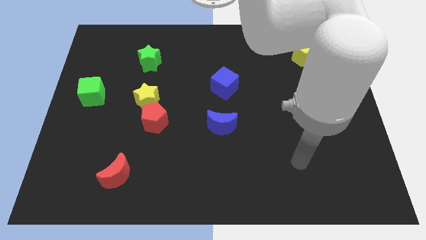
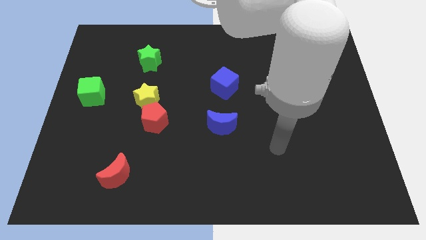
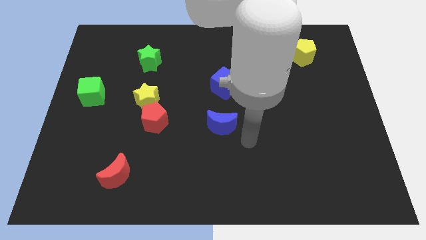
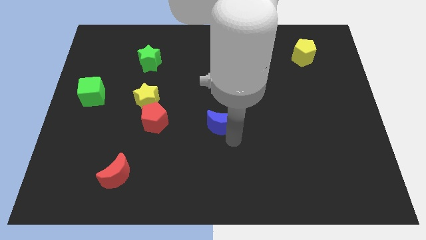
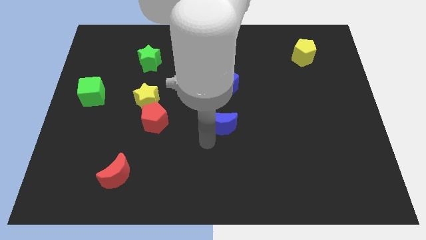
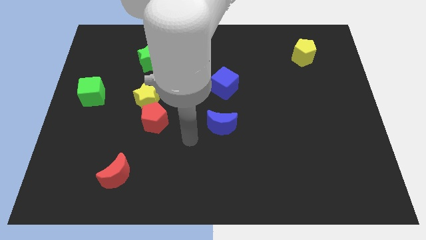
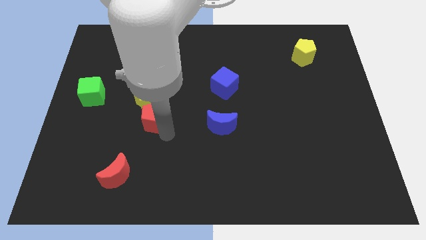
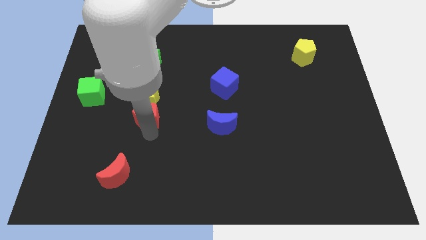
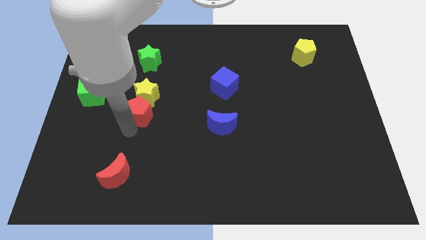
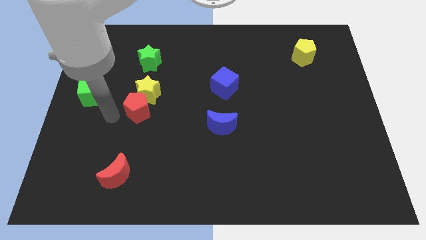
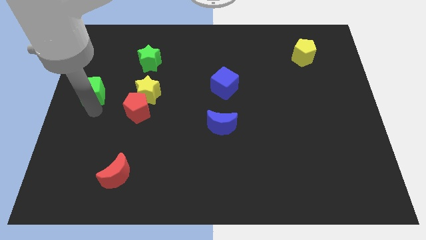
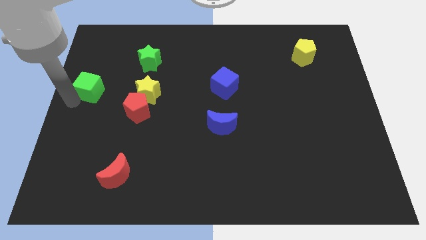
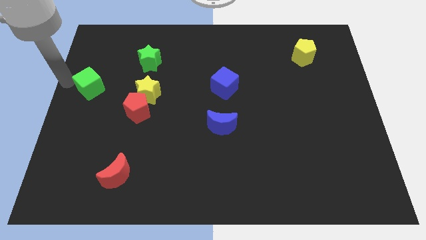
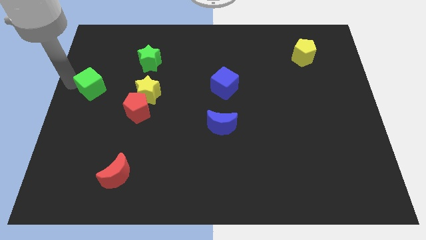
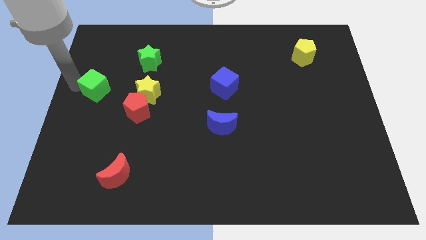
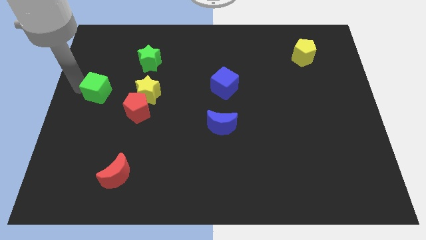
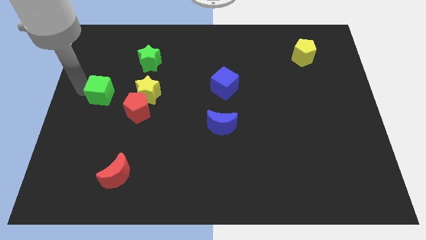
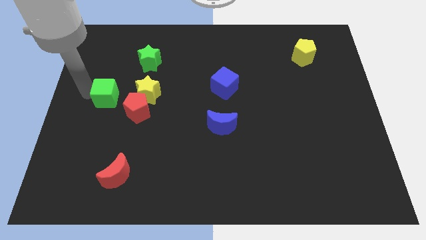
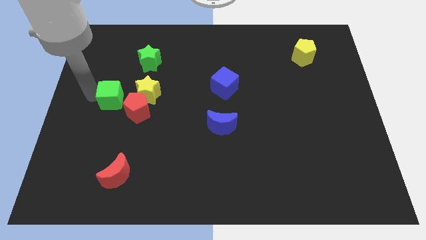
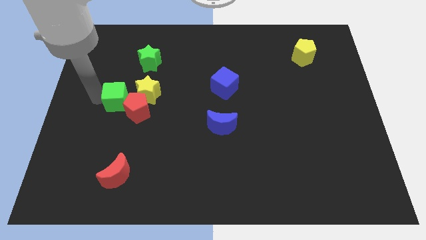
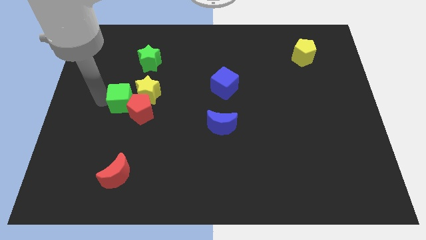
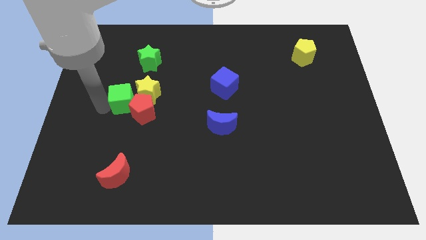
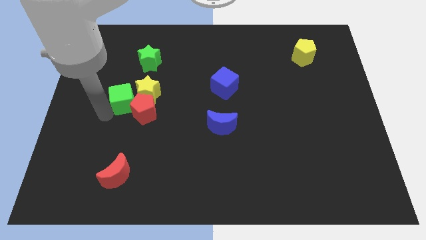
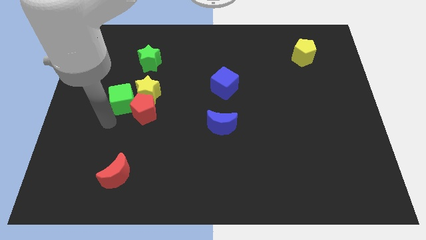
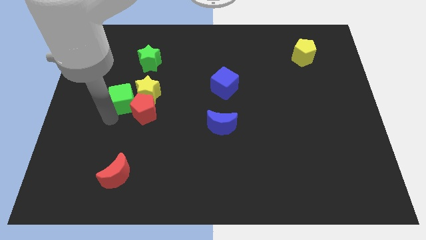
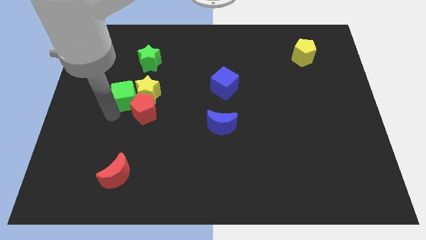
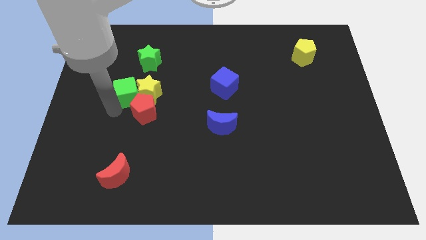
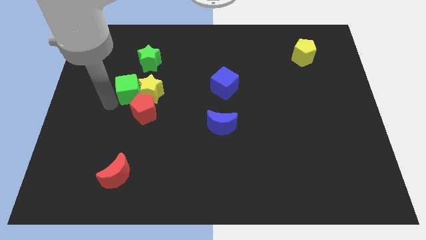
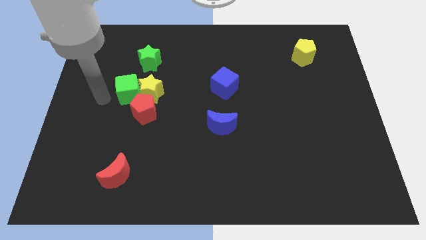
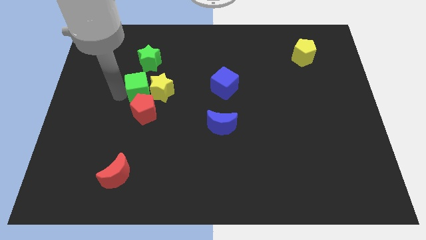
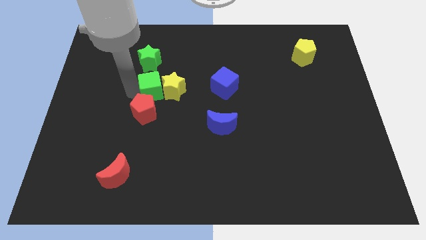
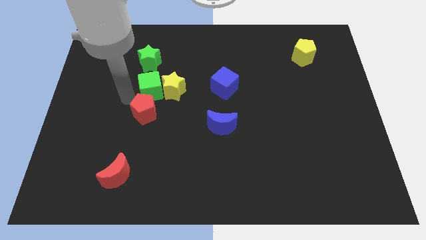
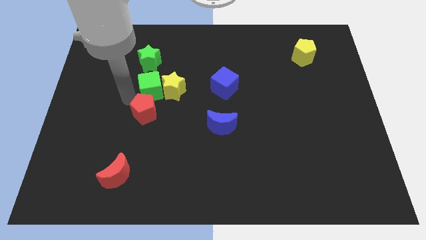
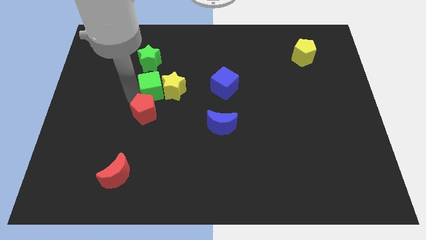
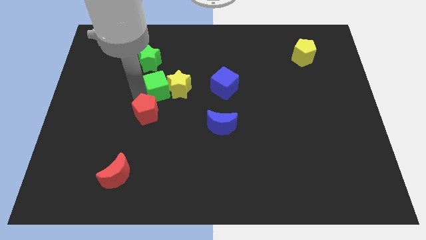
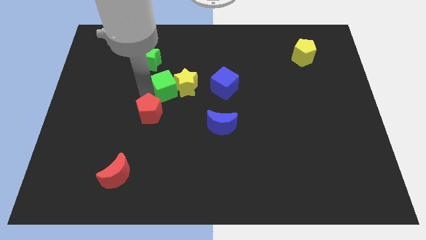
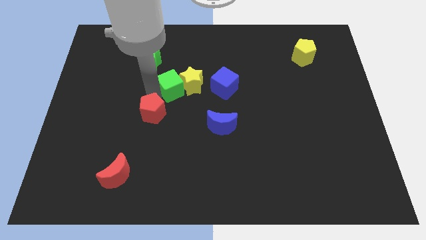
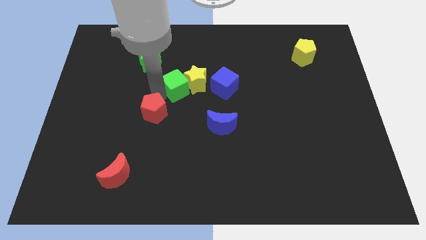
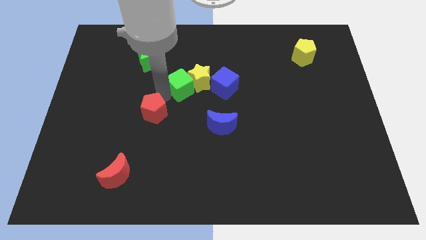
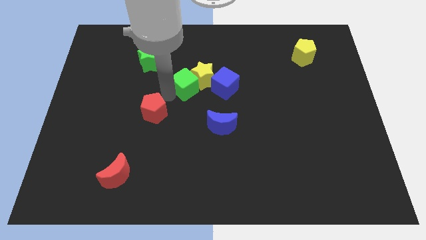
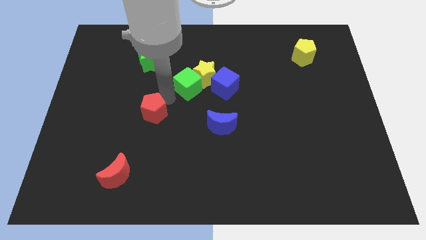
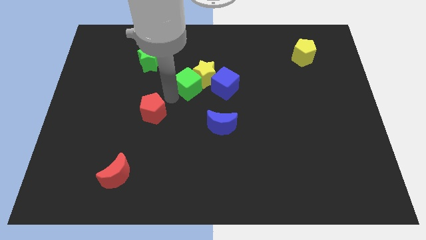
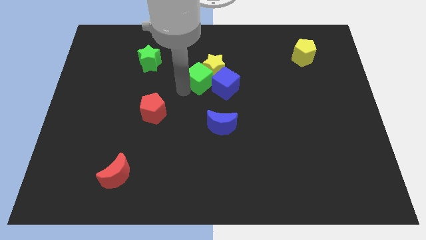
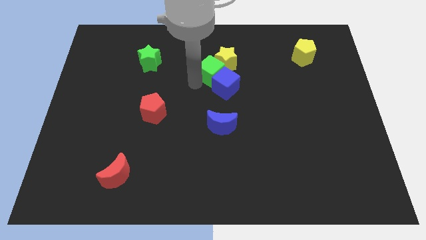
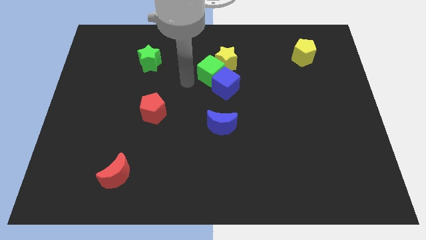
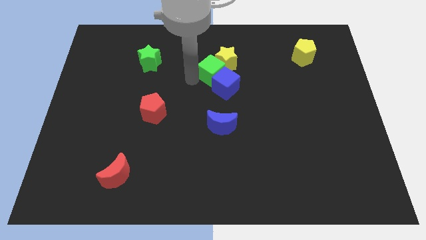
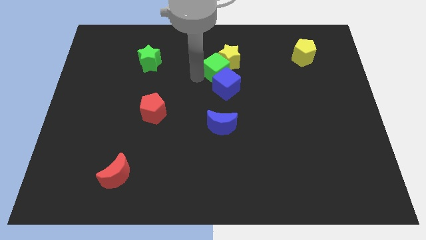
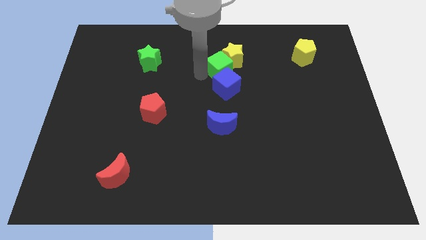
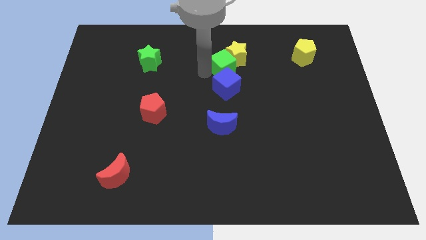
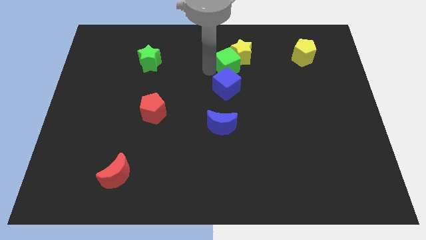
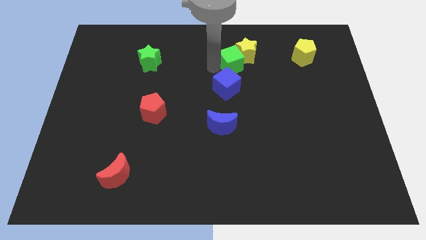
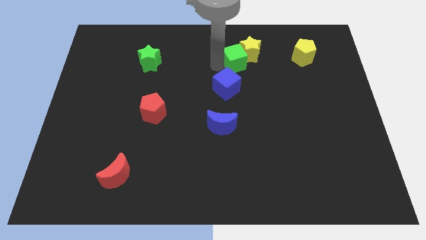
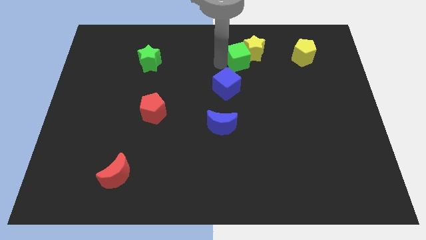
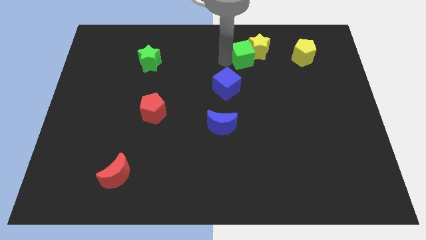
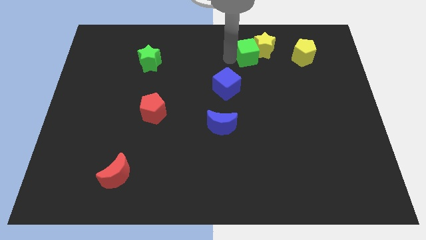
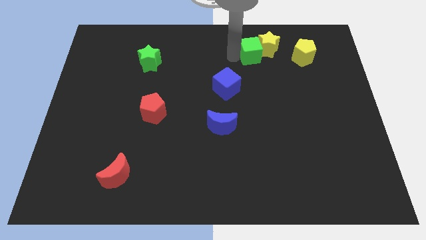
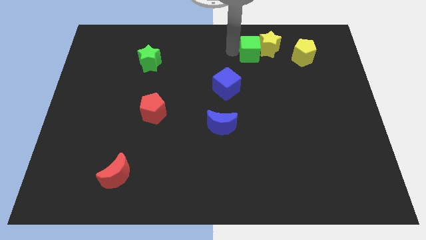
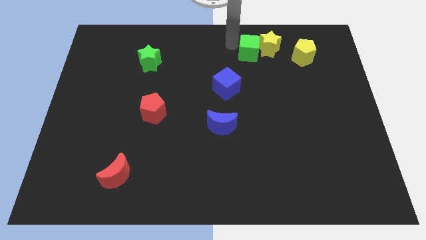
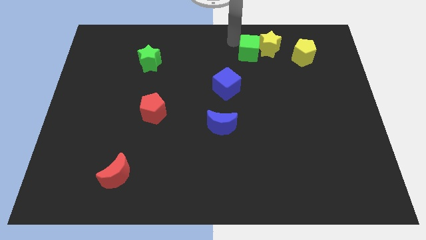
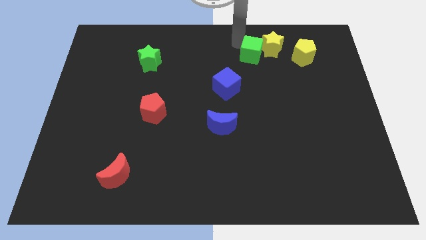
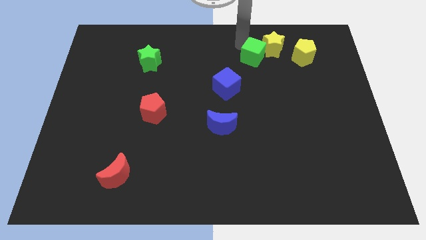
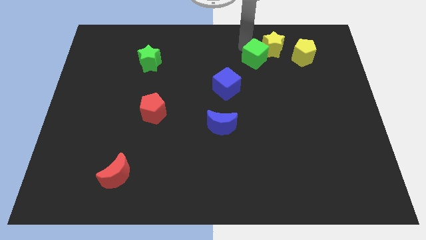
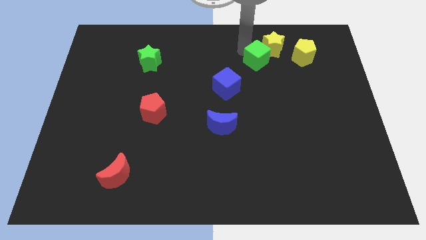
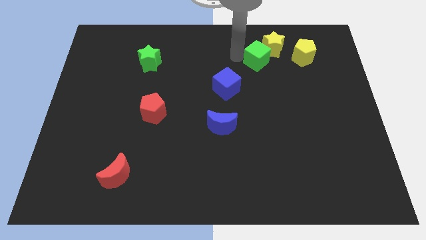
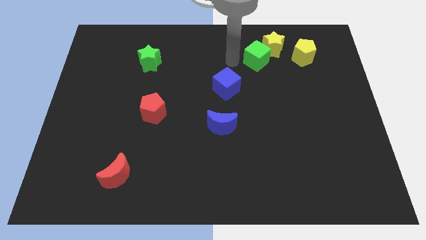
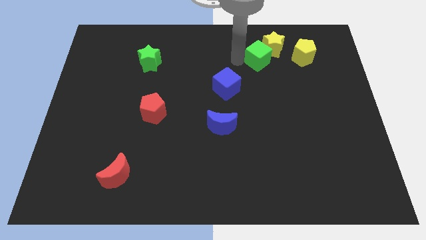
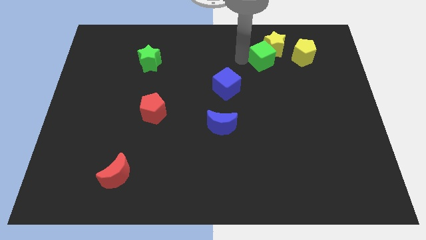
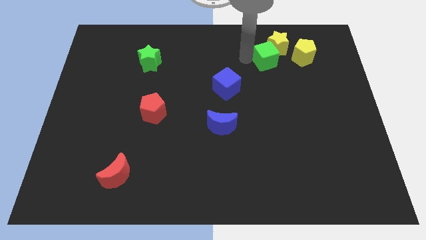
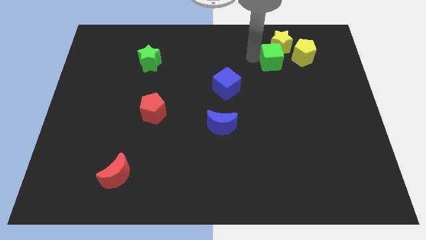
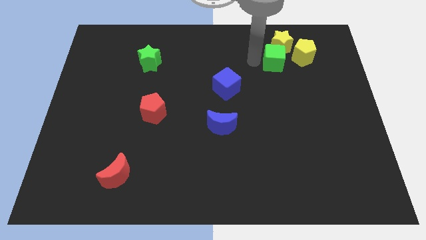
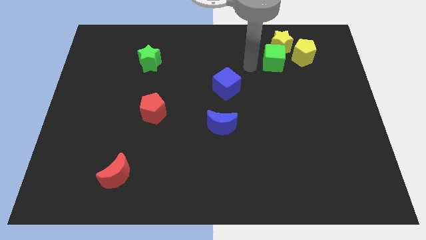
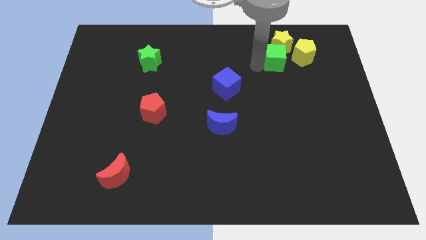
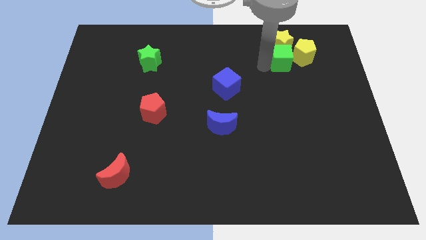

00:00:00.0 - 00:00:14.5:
push the green cube to the yellow pentagon
